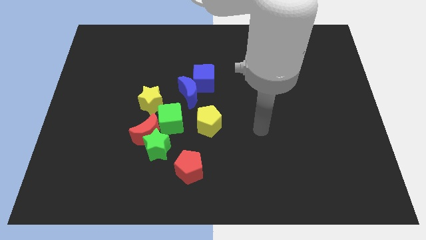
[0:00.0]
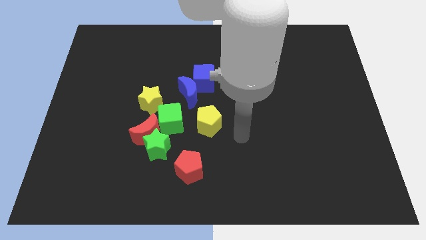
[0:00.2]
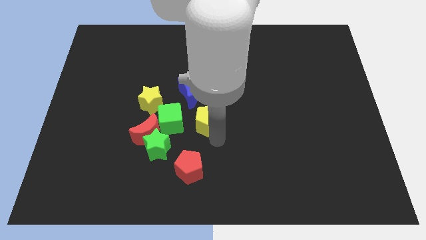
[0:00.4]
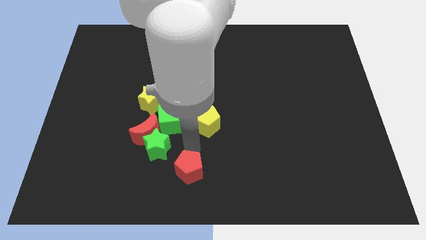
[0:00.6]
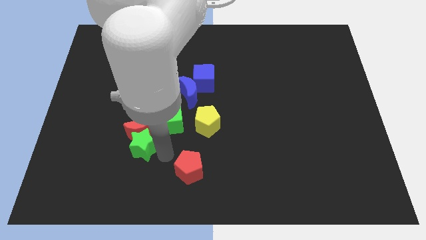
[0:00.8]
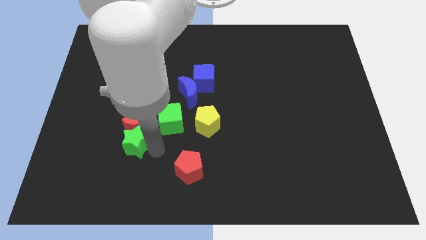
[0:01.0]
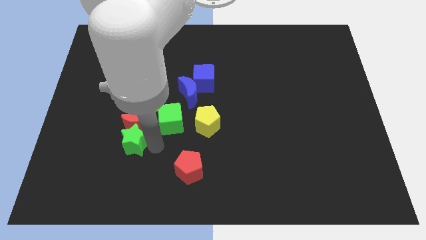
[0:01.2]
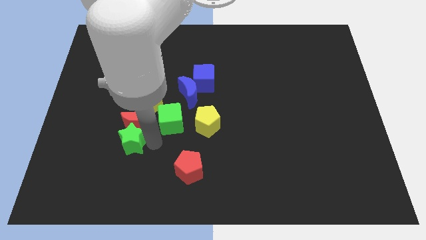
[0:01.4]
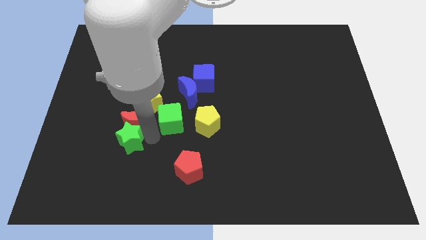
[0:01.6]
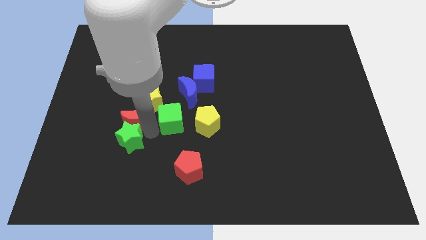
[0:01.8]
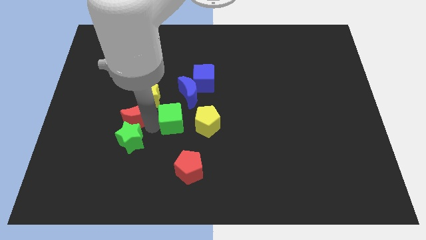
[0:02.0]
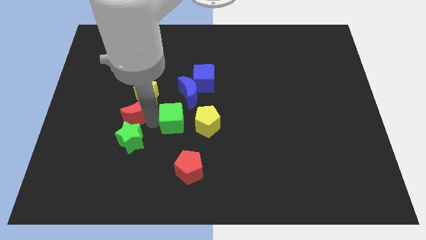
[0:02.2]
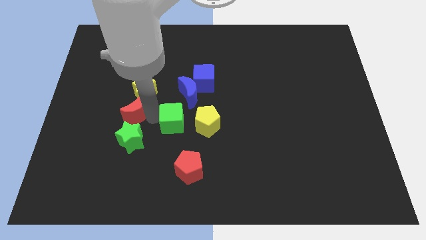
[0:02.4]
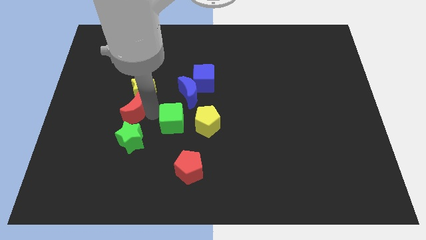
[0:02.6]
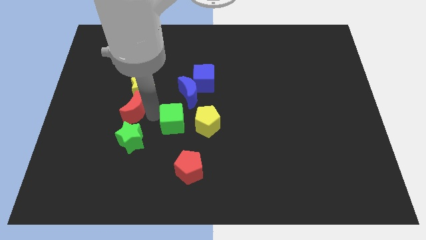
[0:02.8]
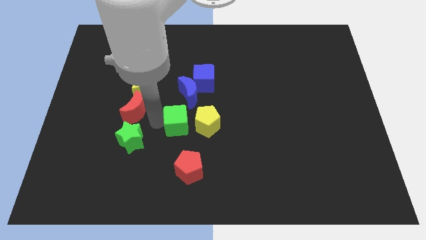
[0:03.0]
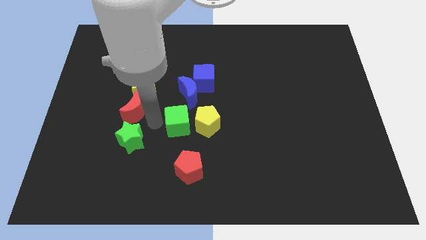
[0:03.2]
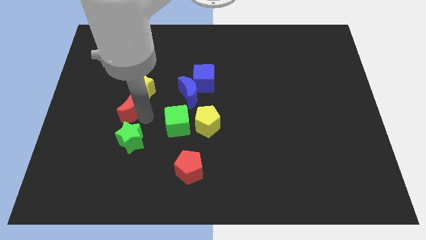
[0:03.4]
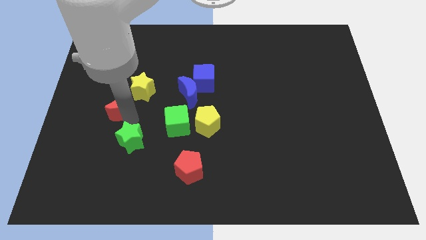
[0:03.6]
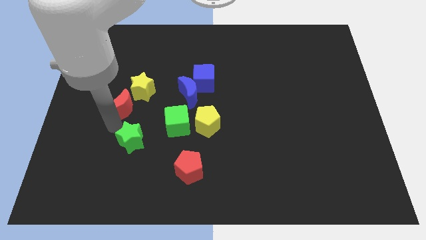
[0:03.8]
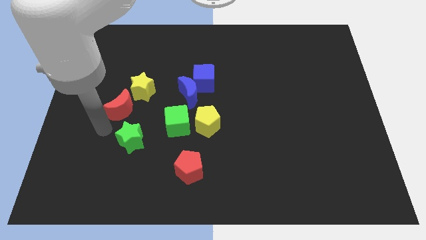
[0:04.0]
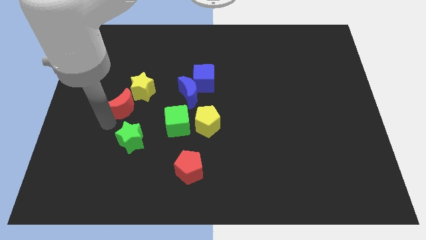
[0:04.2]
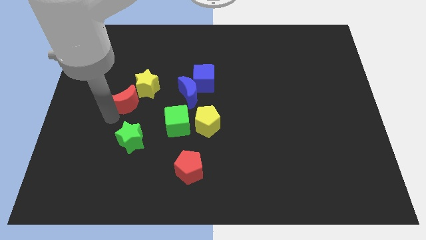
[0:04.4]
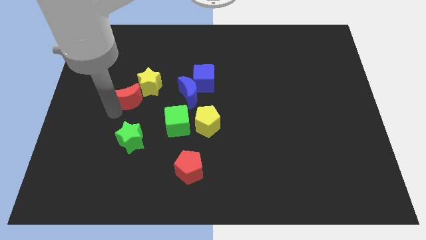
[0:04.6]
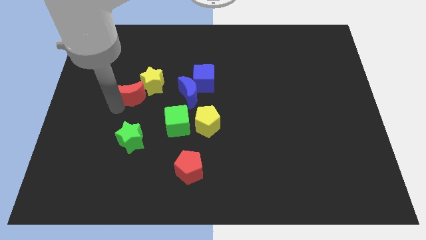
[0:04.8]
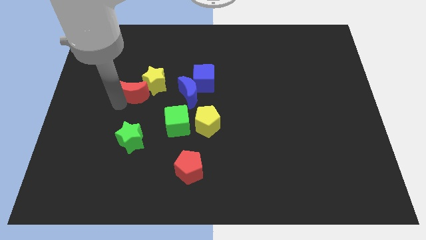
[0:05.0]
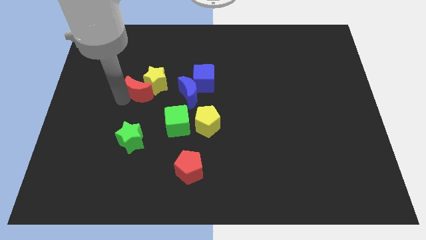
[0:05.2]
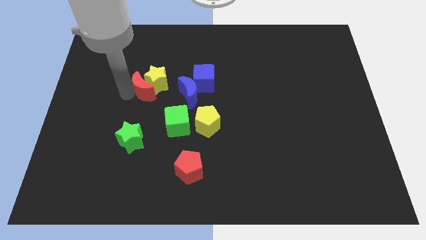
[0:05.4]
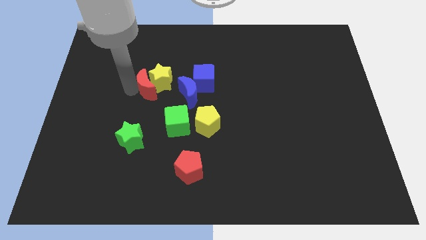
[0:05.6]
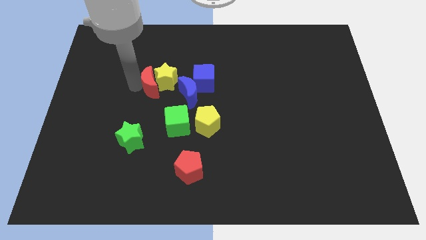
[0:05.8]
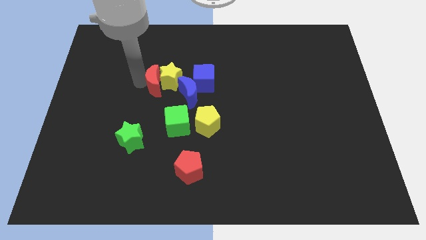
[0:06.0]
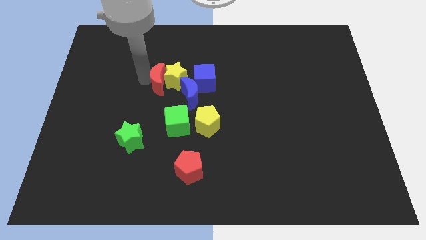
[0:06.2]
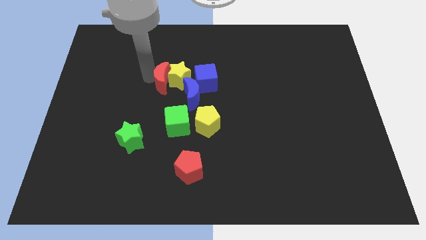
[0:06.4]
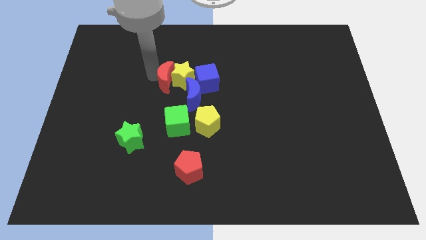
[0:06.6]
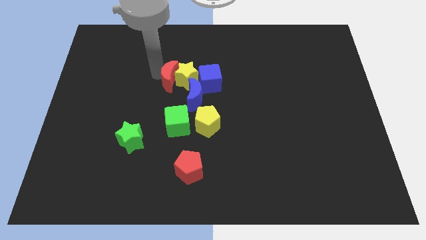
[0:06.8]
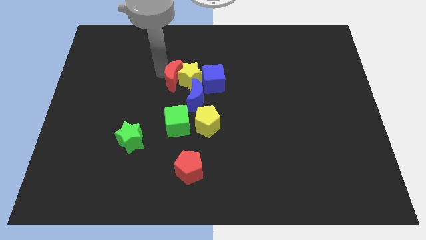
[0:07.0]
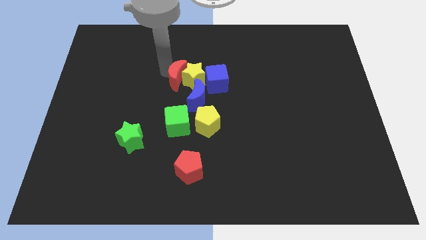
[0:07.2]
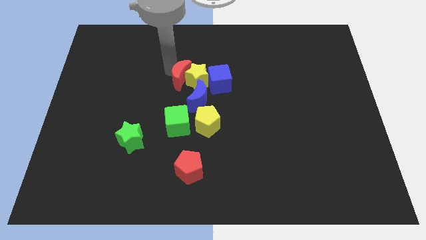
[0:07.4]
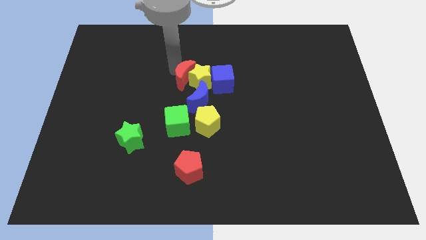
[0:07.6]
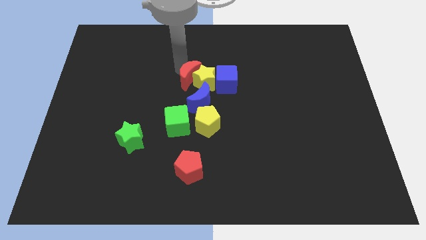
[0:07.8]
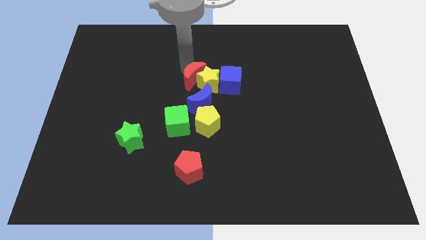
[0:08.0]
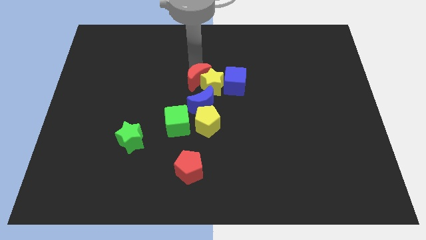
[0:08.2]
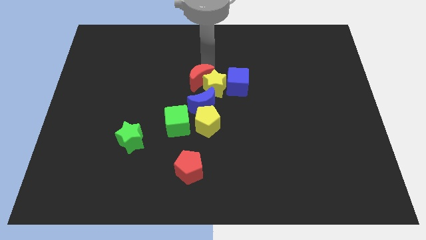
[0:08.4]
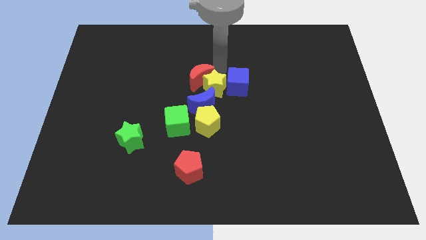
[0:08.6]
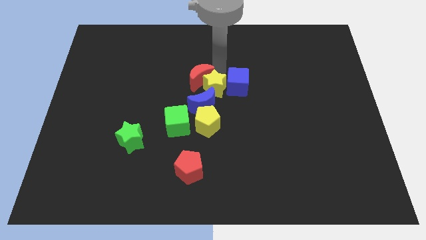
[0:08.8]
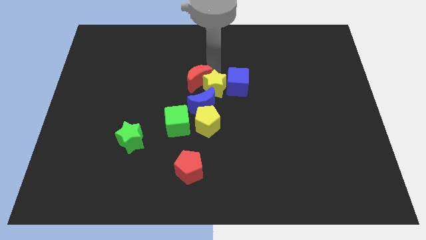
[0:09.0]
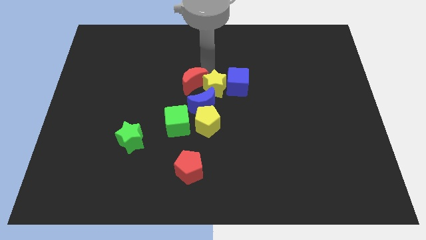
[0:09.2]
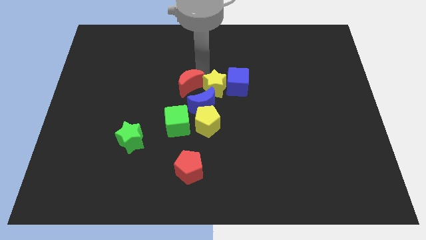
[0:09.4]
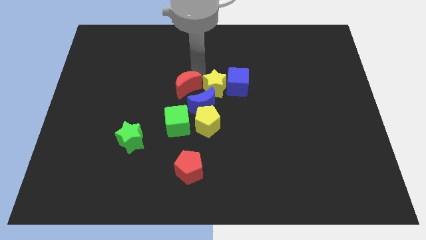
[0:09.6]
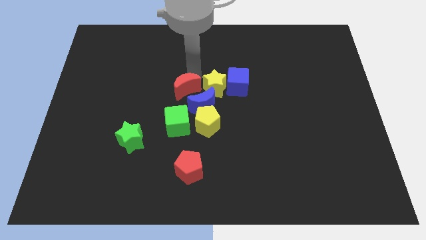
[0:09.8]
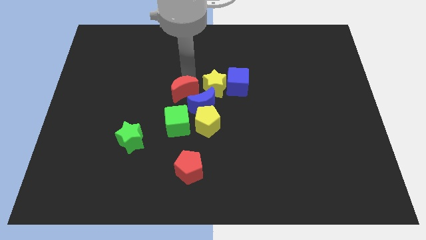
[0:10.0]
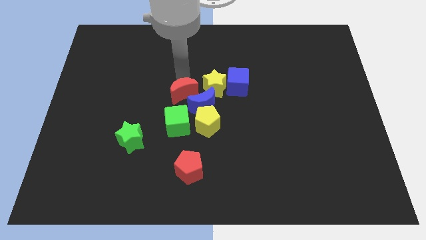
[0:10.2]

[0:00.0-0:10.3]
move the red moon to the blue moon

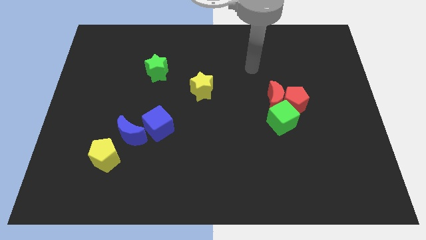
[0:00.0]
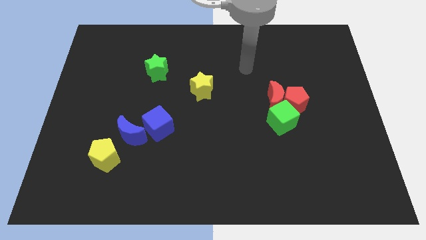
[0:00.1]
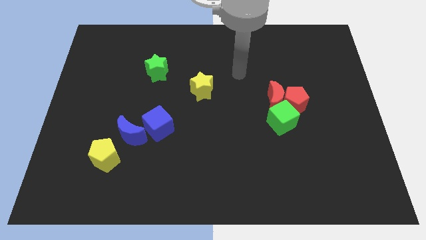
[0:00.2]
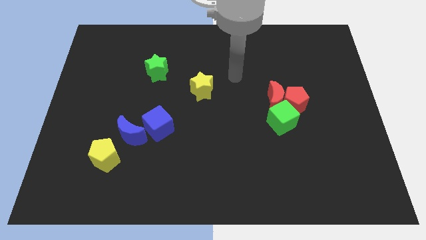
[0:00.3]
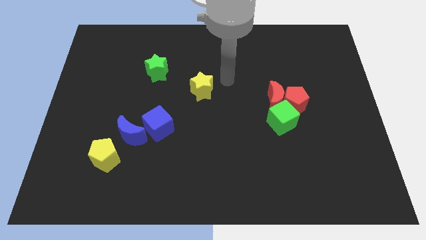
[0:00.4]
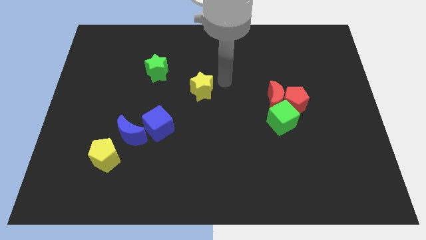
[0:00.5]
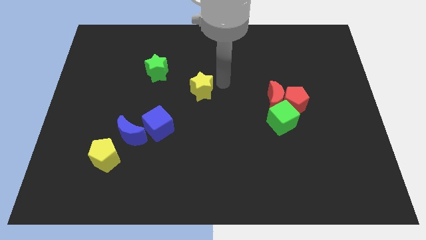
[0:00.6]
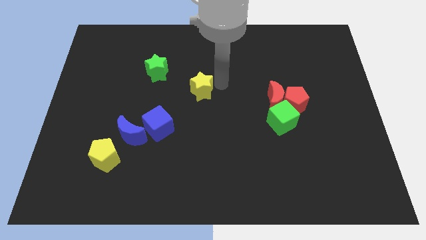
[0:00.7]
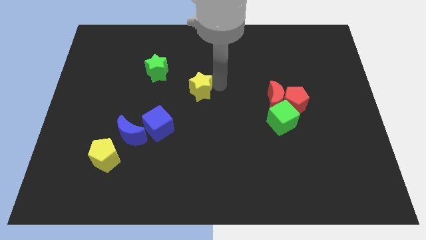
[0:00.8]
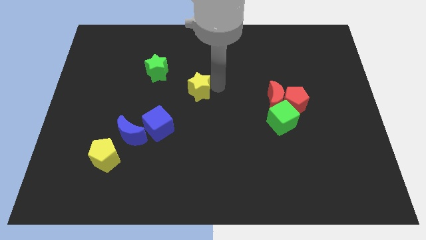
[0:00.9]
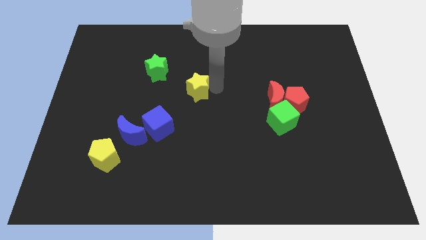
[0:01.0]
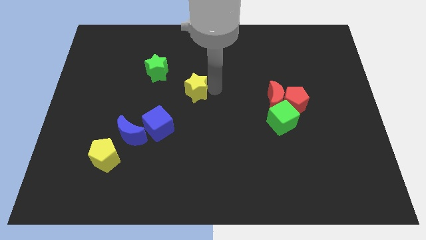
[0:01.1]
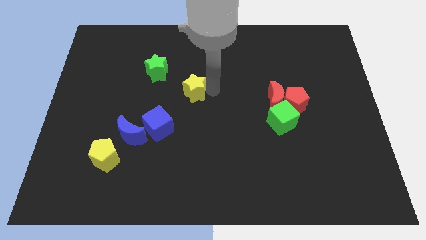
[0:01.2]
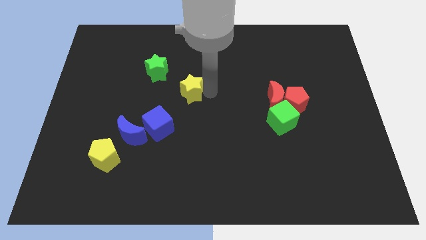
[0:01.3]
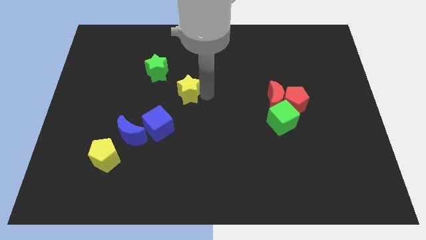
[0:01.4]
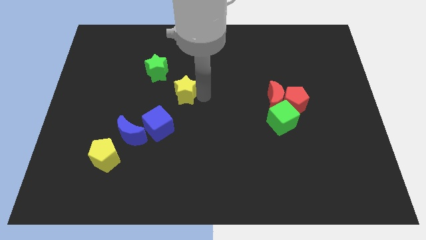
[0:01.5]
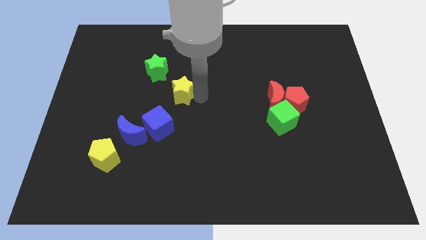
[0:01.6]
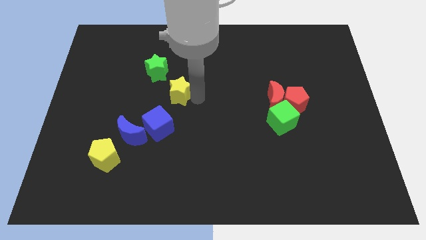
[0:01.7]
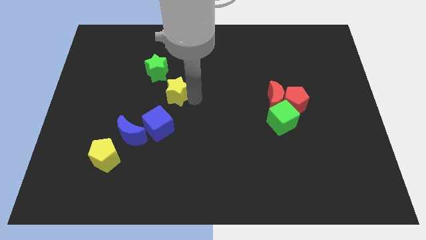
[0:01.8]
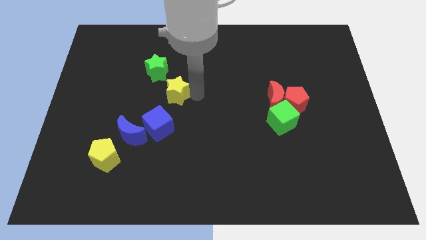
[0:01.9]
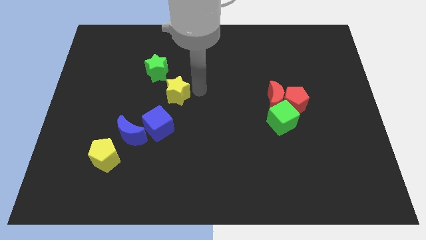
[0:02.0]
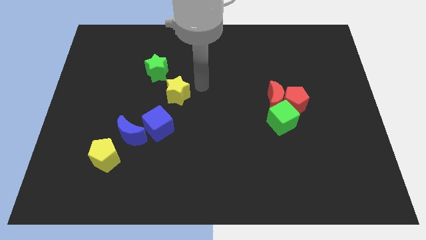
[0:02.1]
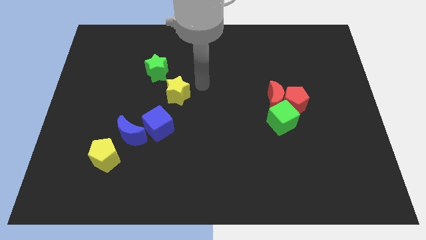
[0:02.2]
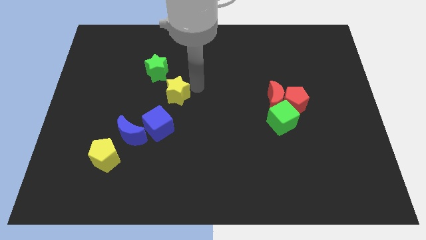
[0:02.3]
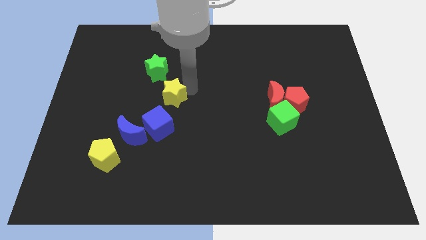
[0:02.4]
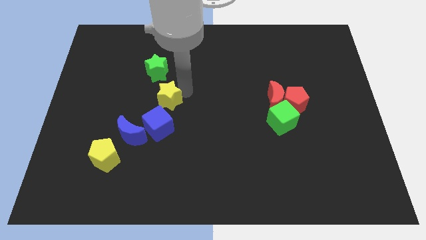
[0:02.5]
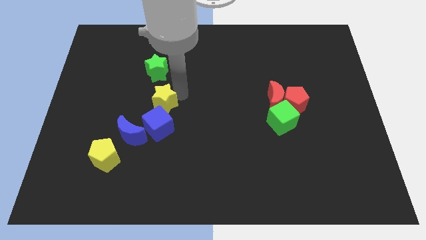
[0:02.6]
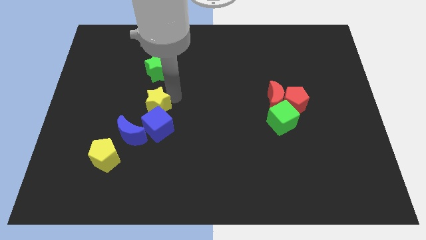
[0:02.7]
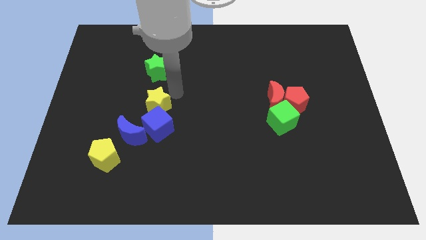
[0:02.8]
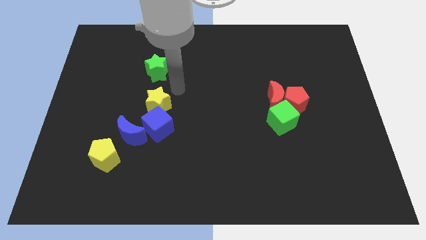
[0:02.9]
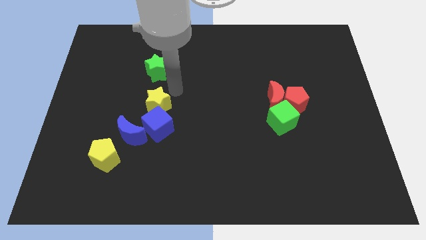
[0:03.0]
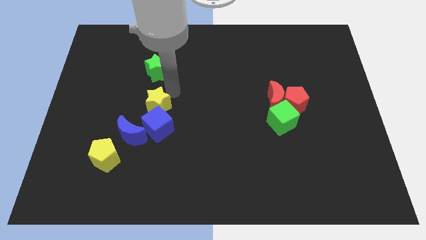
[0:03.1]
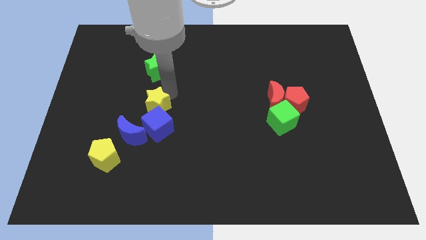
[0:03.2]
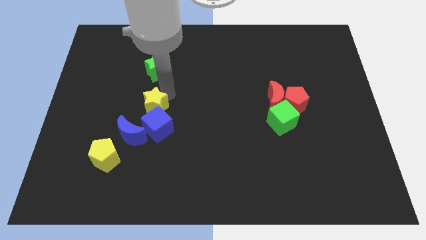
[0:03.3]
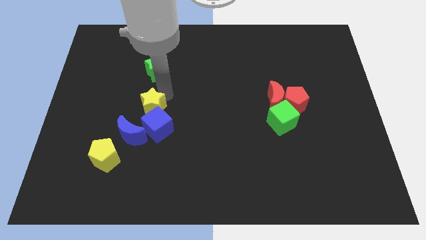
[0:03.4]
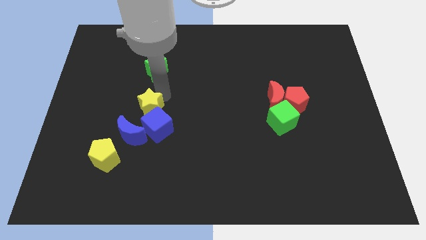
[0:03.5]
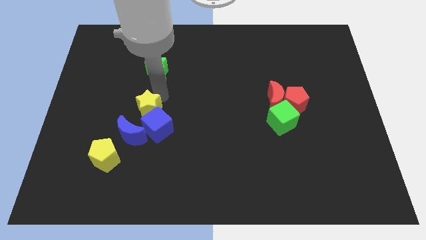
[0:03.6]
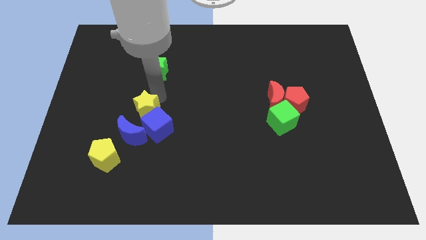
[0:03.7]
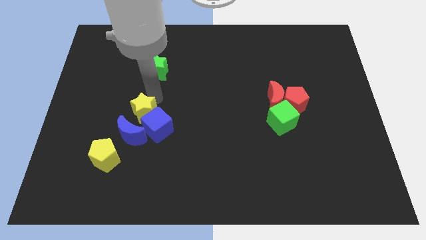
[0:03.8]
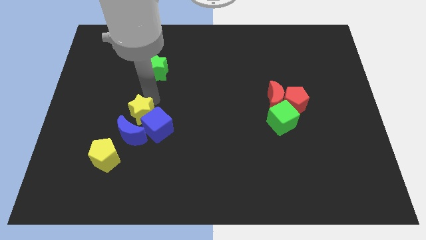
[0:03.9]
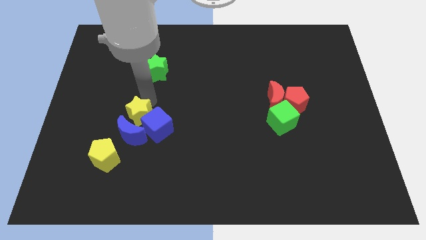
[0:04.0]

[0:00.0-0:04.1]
slide the yellow star next to the blue moon
